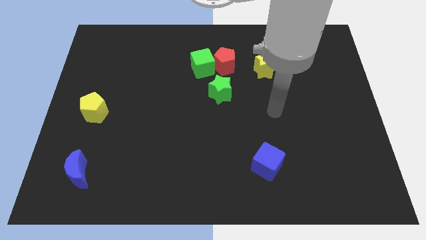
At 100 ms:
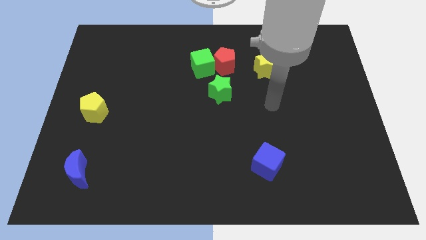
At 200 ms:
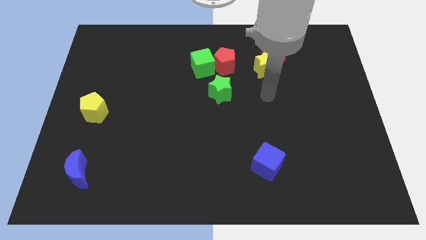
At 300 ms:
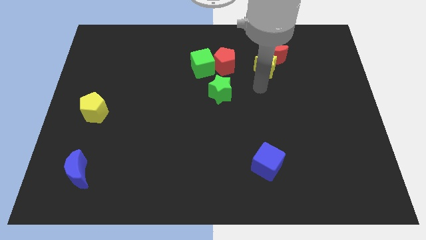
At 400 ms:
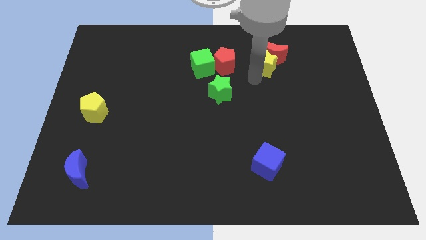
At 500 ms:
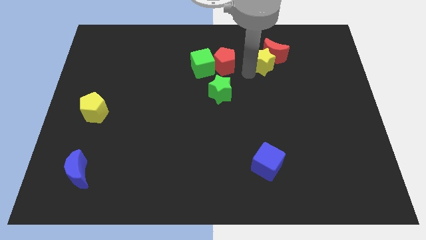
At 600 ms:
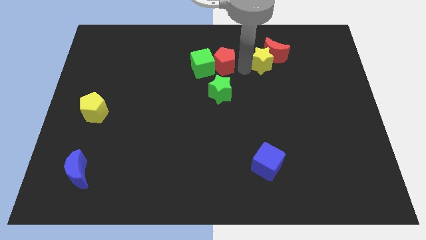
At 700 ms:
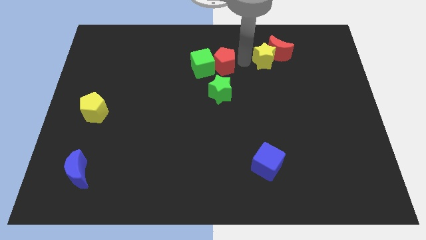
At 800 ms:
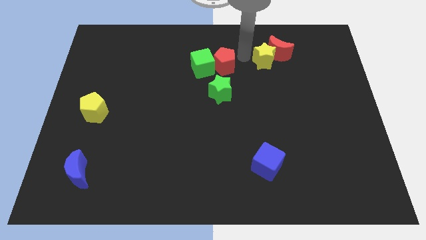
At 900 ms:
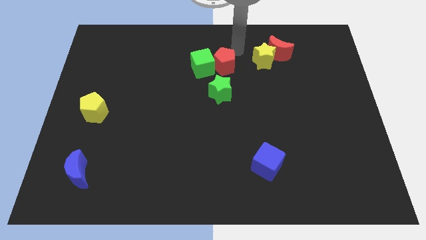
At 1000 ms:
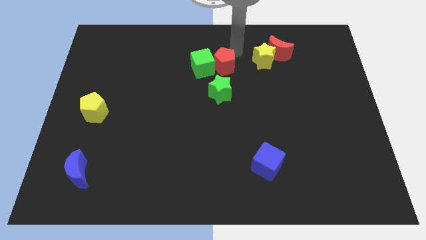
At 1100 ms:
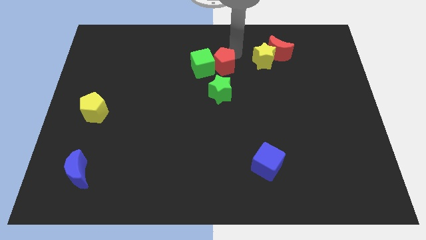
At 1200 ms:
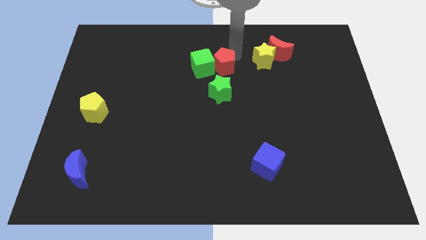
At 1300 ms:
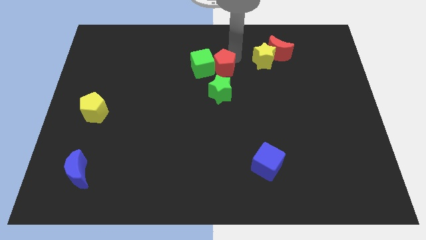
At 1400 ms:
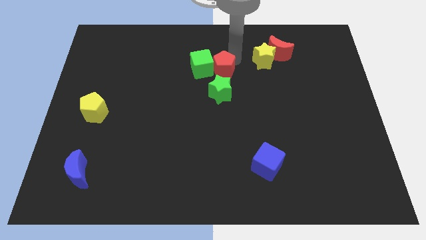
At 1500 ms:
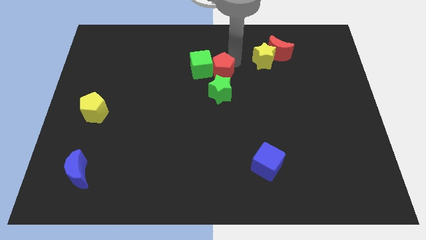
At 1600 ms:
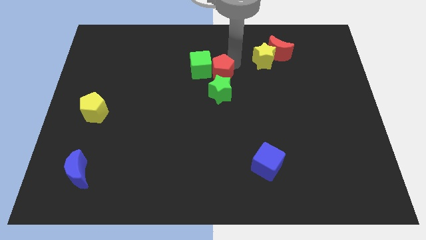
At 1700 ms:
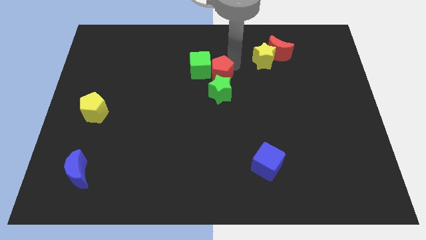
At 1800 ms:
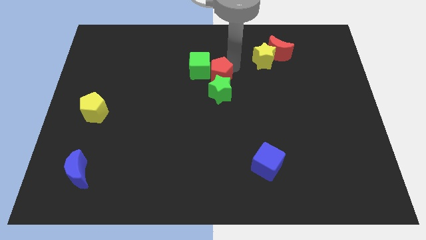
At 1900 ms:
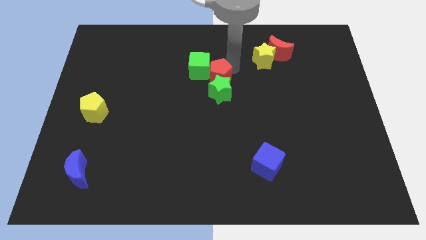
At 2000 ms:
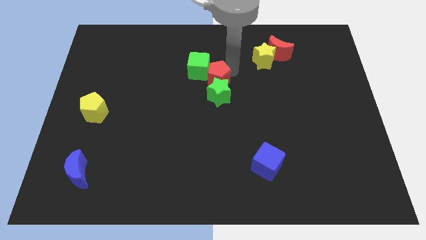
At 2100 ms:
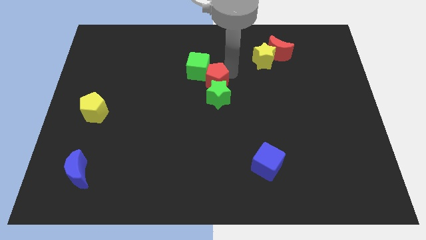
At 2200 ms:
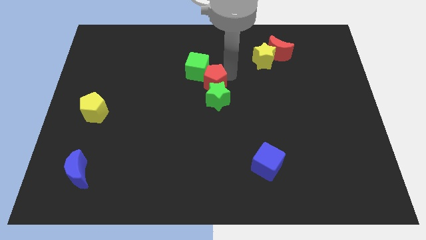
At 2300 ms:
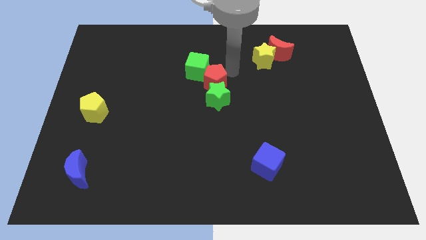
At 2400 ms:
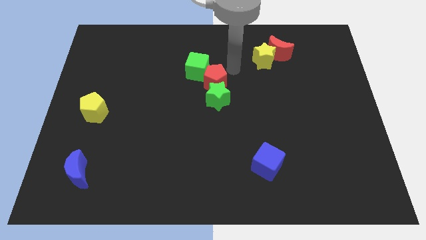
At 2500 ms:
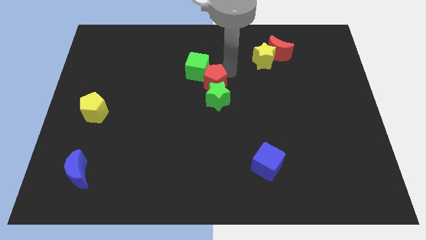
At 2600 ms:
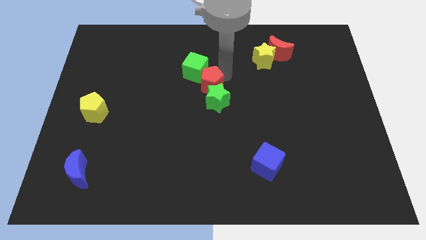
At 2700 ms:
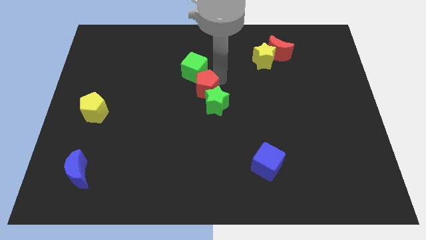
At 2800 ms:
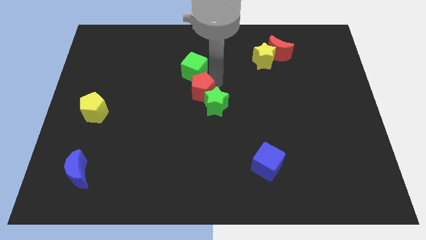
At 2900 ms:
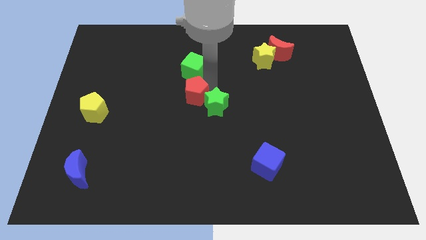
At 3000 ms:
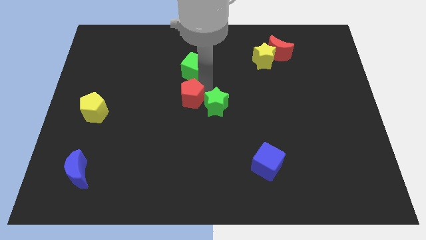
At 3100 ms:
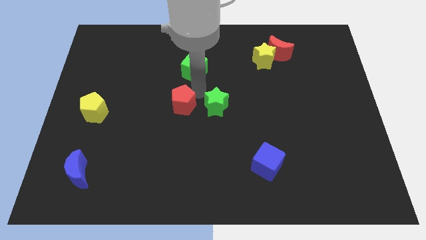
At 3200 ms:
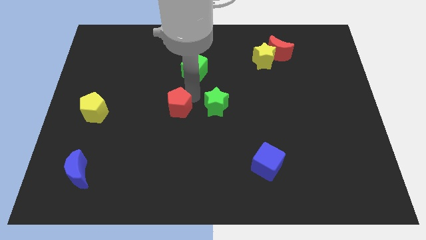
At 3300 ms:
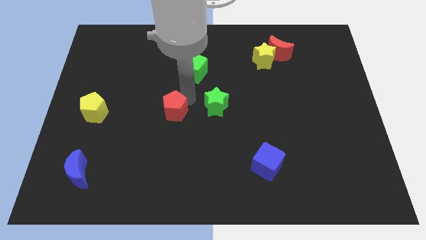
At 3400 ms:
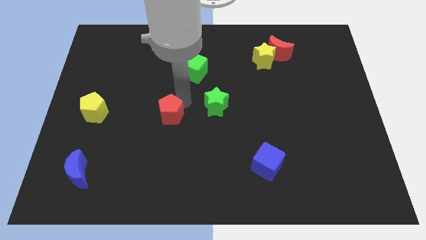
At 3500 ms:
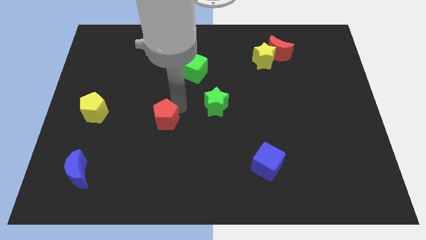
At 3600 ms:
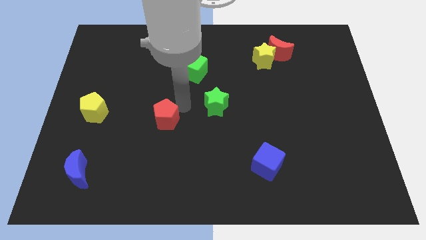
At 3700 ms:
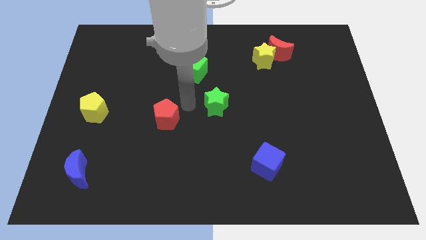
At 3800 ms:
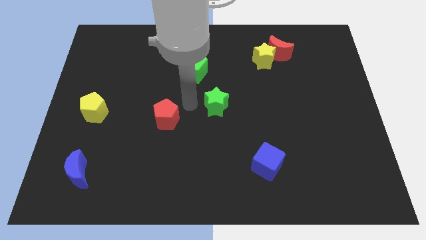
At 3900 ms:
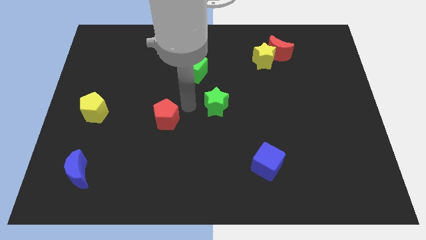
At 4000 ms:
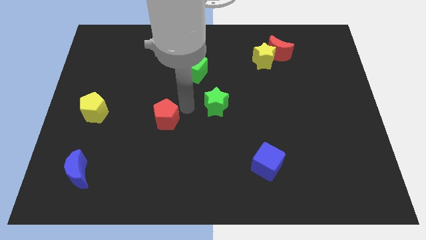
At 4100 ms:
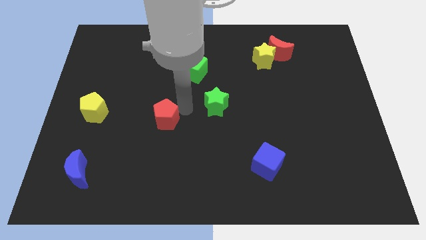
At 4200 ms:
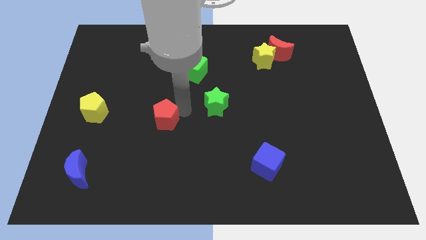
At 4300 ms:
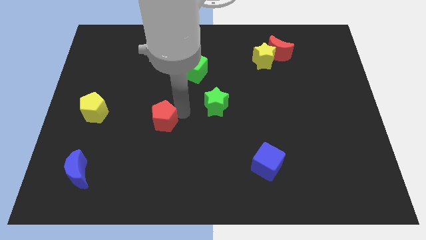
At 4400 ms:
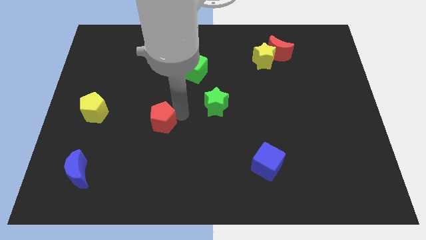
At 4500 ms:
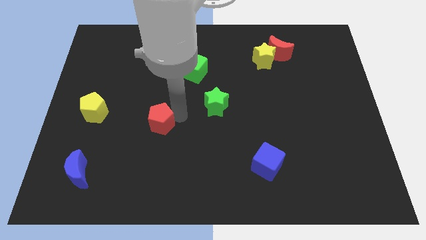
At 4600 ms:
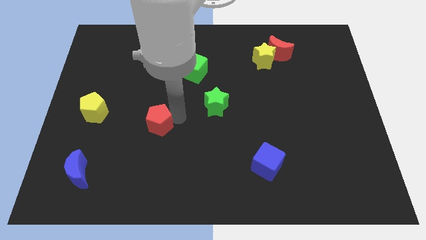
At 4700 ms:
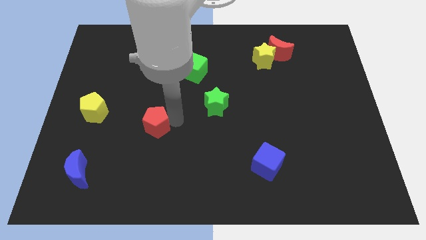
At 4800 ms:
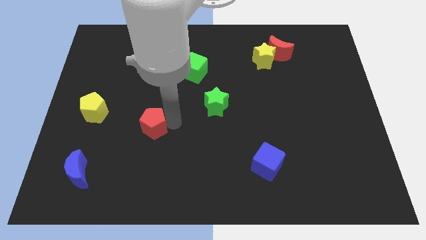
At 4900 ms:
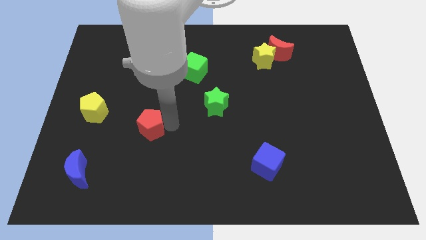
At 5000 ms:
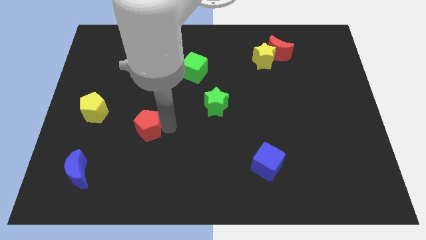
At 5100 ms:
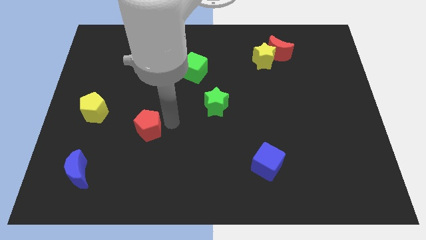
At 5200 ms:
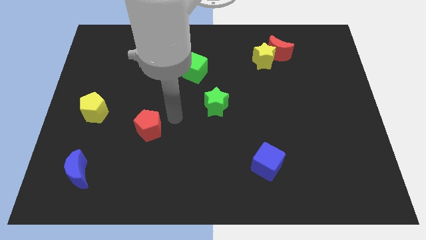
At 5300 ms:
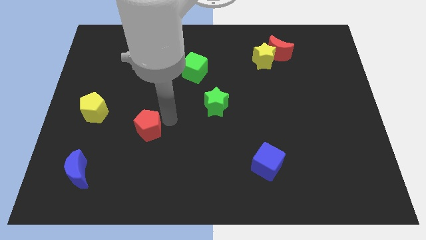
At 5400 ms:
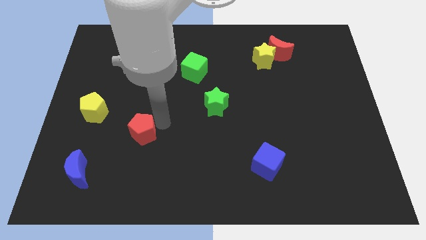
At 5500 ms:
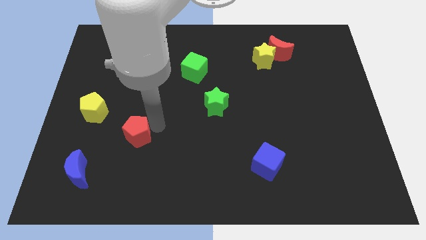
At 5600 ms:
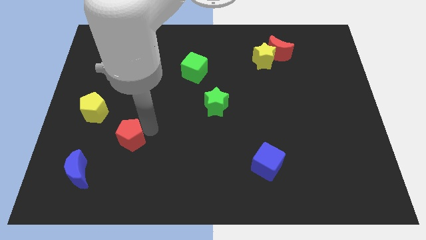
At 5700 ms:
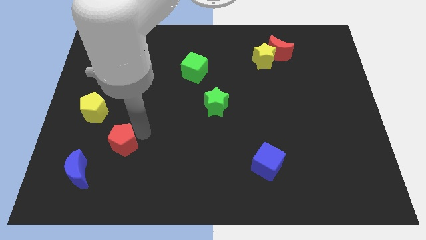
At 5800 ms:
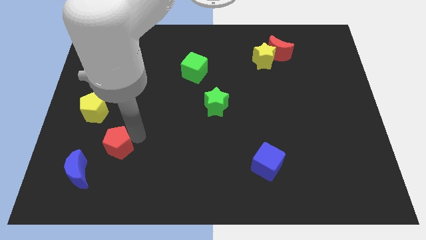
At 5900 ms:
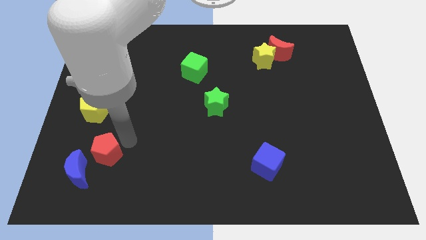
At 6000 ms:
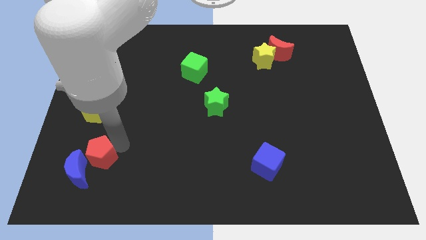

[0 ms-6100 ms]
move the red pentagon close to the blue moon

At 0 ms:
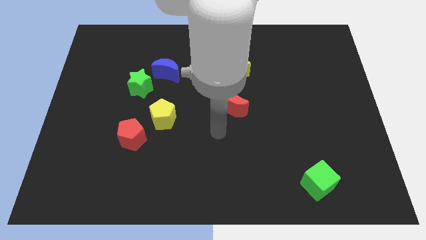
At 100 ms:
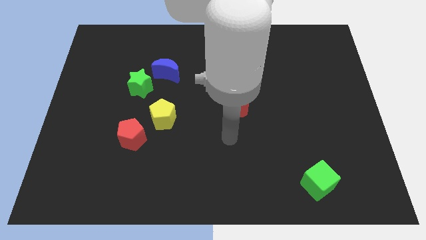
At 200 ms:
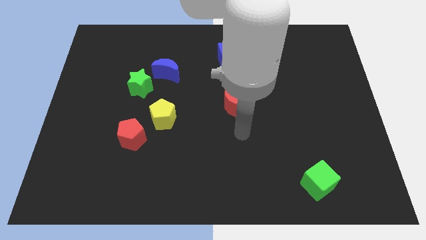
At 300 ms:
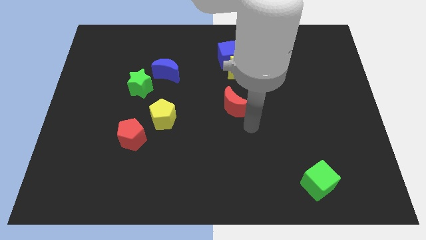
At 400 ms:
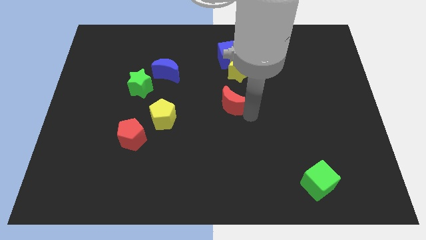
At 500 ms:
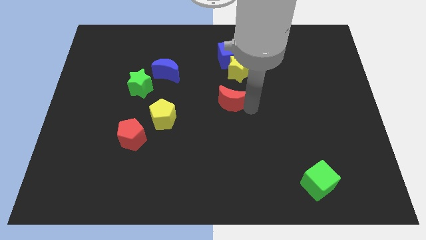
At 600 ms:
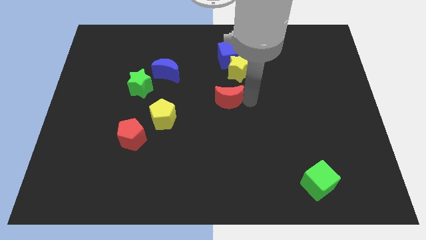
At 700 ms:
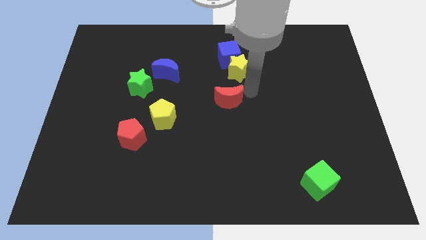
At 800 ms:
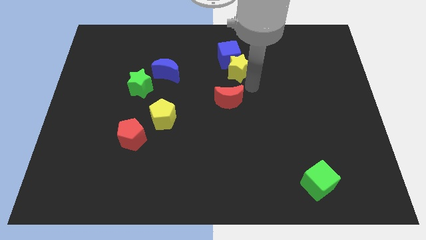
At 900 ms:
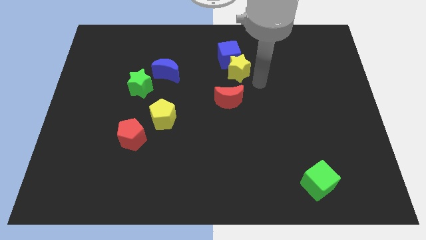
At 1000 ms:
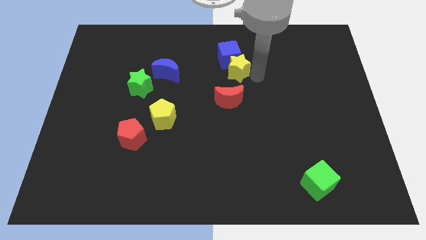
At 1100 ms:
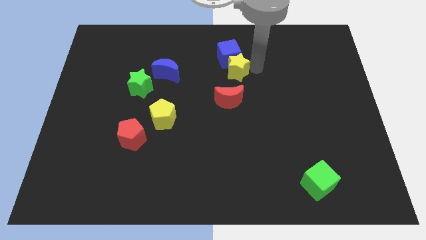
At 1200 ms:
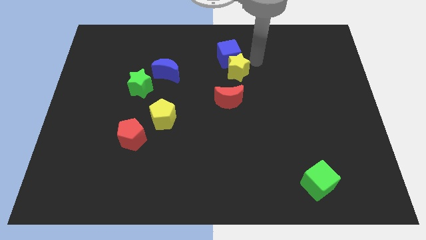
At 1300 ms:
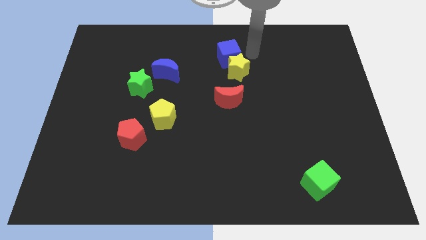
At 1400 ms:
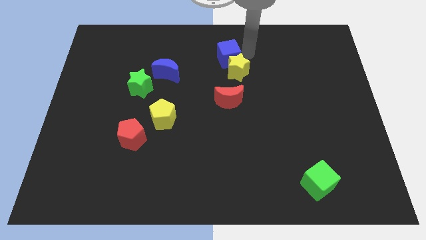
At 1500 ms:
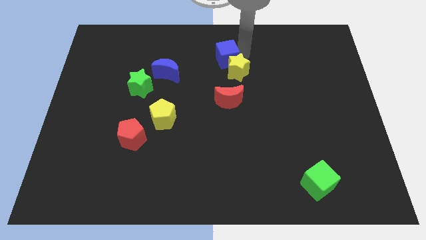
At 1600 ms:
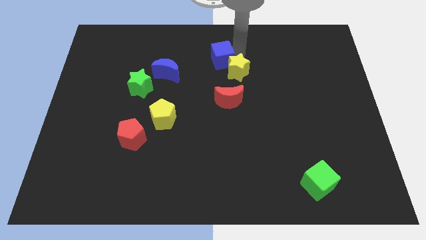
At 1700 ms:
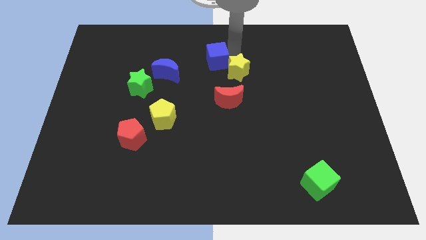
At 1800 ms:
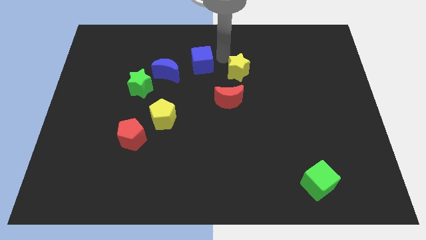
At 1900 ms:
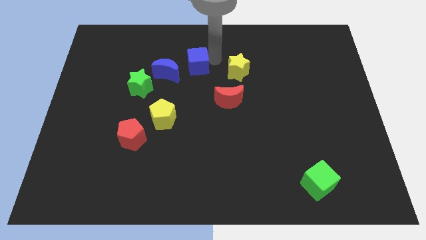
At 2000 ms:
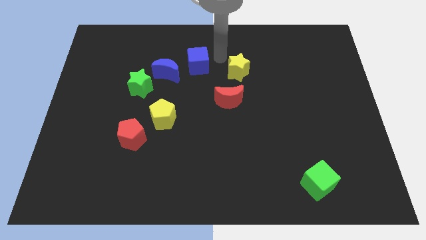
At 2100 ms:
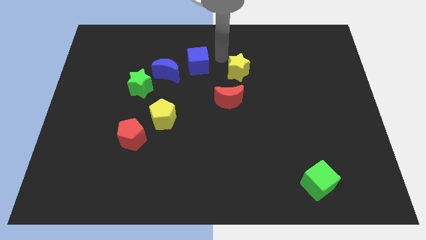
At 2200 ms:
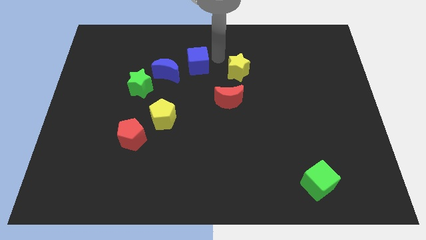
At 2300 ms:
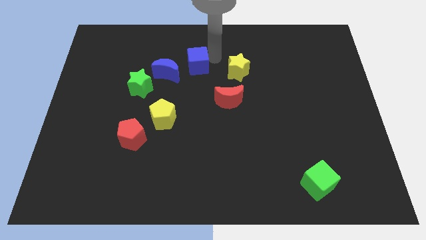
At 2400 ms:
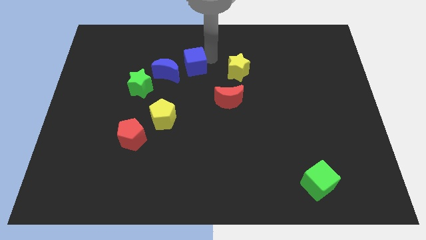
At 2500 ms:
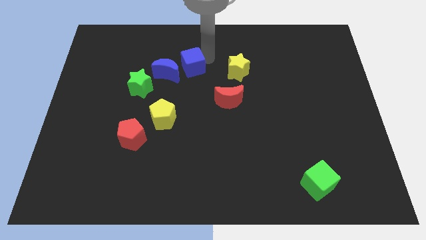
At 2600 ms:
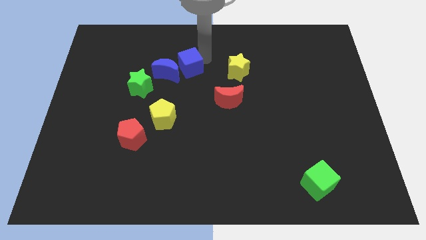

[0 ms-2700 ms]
move the blue cube towards the blue moon
